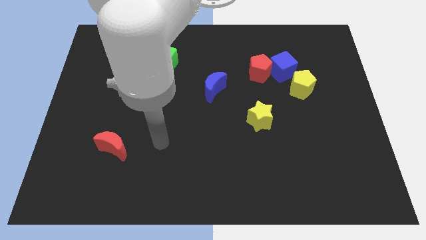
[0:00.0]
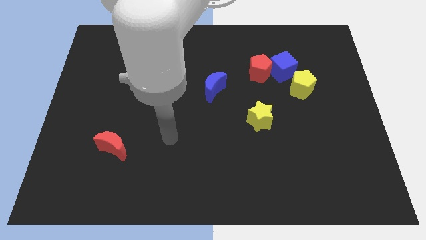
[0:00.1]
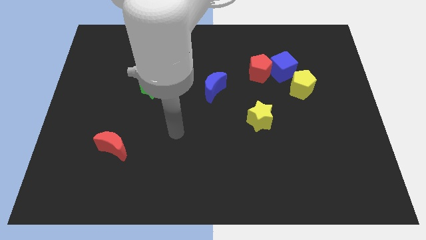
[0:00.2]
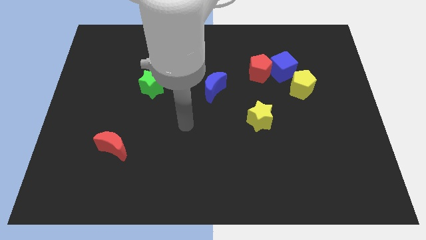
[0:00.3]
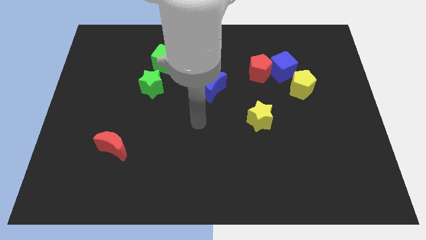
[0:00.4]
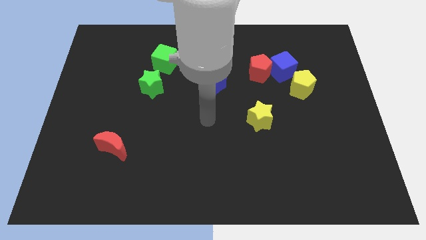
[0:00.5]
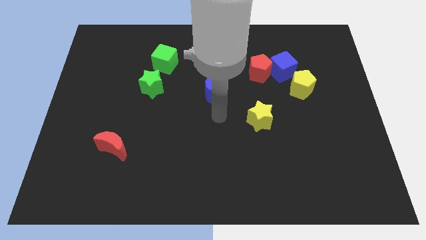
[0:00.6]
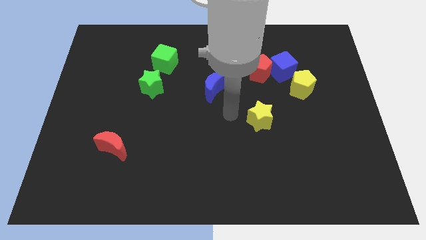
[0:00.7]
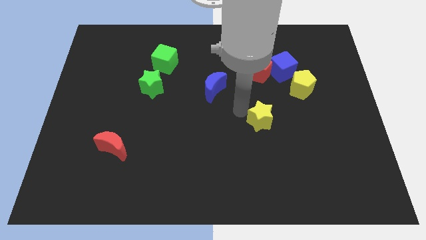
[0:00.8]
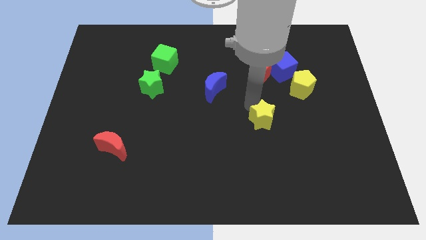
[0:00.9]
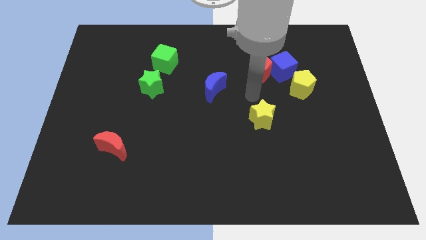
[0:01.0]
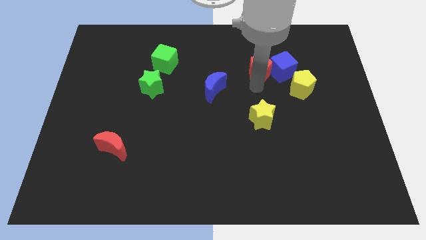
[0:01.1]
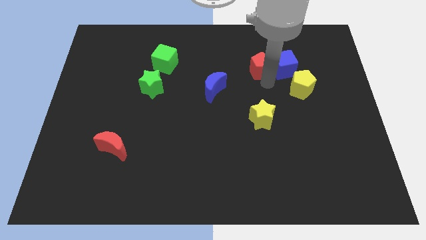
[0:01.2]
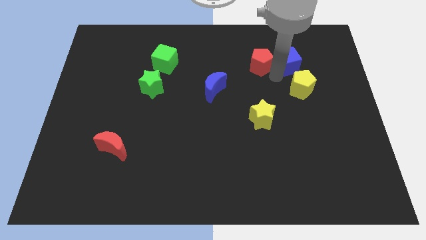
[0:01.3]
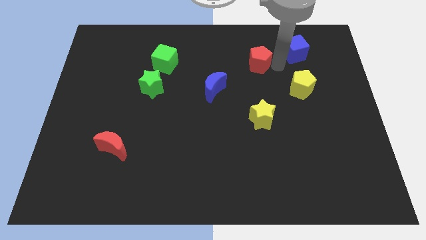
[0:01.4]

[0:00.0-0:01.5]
pull the red pentagon apart from the blue cube

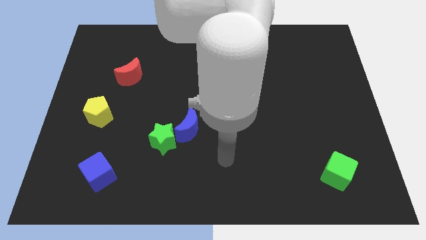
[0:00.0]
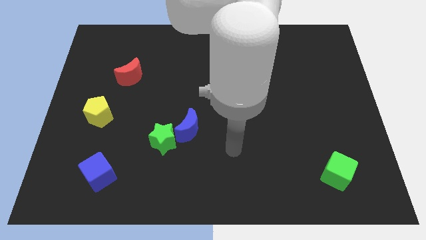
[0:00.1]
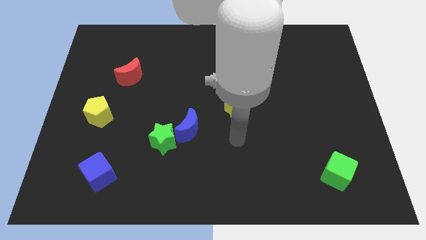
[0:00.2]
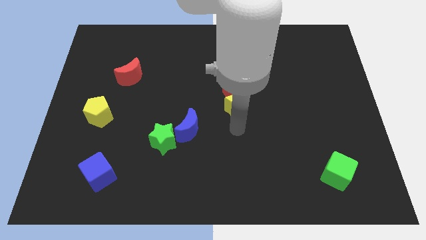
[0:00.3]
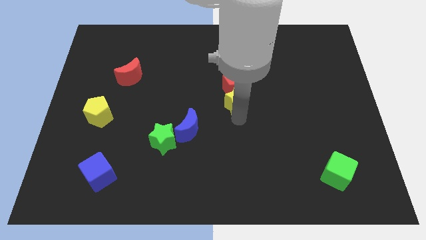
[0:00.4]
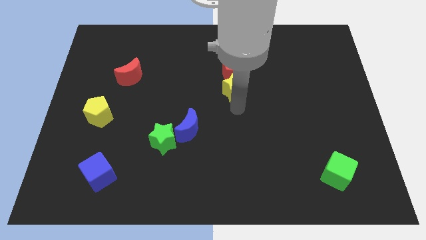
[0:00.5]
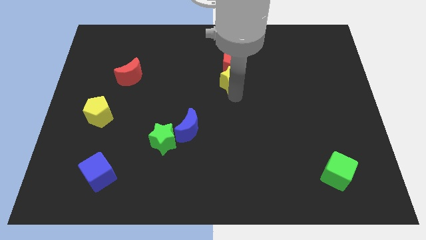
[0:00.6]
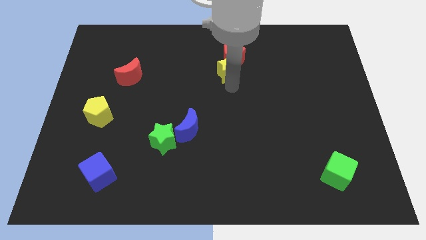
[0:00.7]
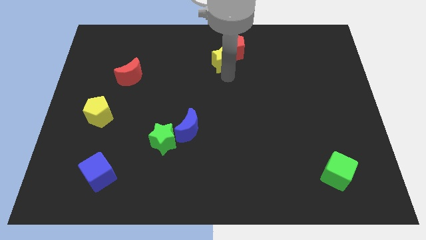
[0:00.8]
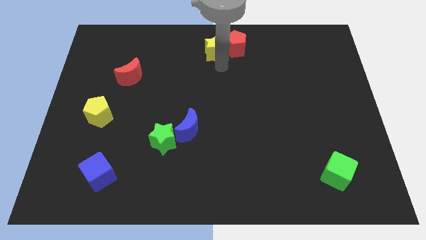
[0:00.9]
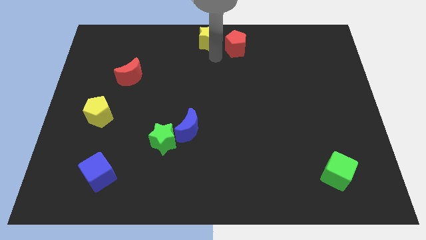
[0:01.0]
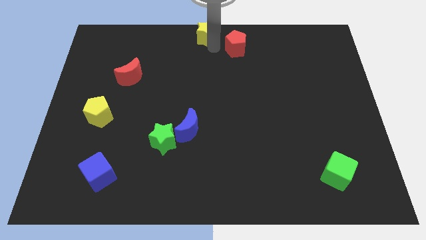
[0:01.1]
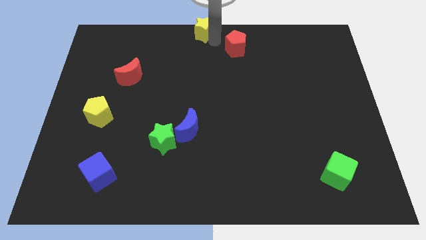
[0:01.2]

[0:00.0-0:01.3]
move the red pentagon away from the yellow star

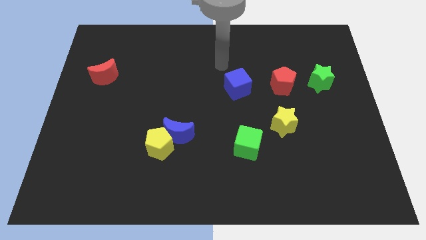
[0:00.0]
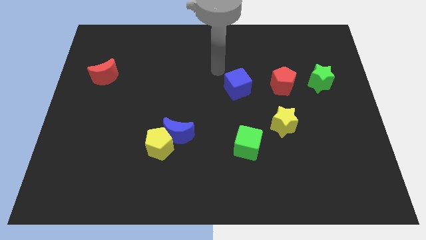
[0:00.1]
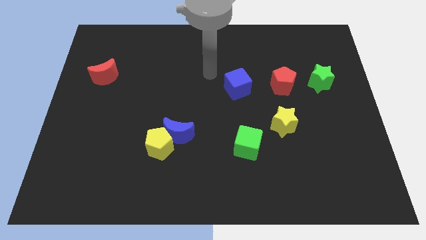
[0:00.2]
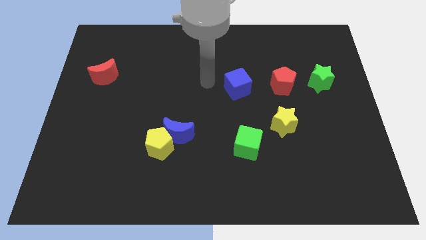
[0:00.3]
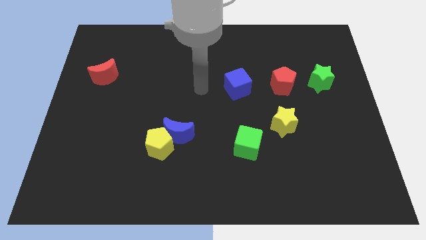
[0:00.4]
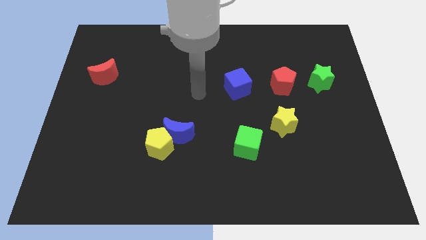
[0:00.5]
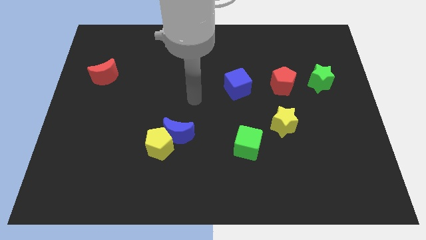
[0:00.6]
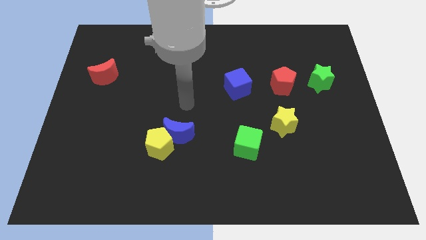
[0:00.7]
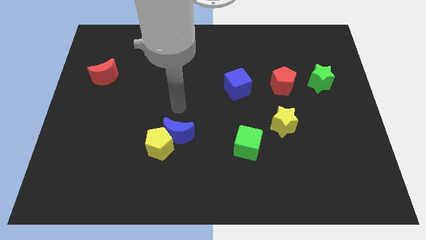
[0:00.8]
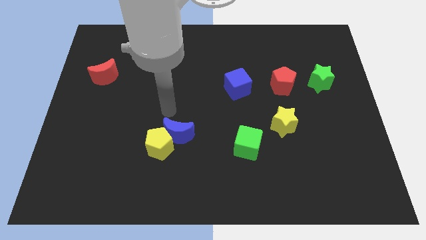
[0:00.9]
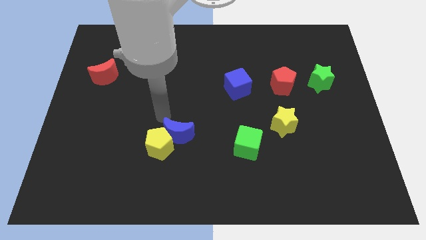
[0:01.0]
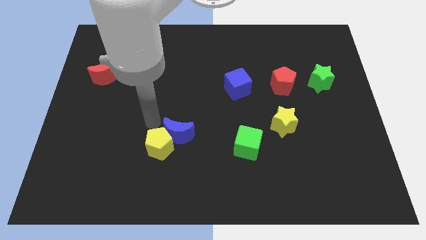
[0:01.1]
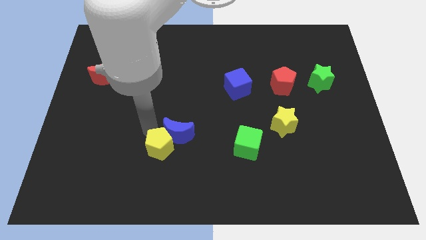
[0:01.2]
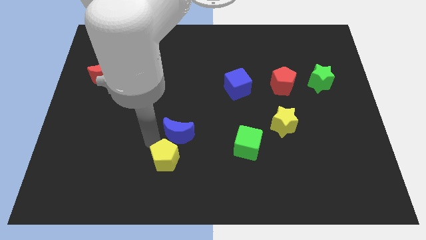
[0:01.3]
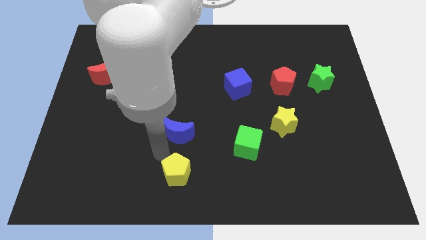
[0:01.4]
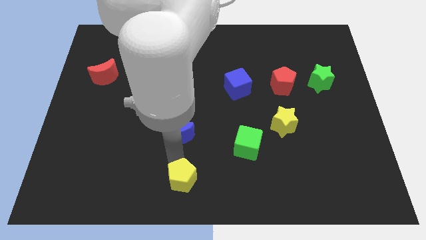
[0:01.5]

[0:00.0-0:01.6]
separate the blue moon from the yellow pentagon

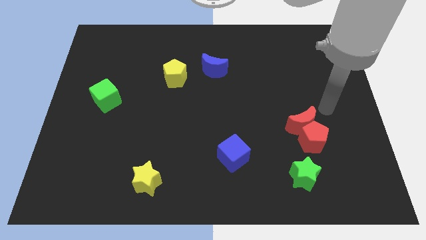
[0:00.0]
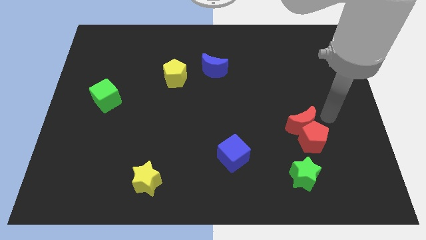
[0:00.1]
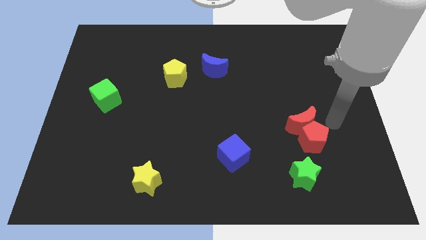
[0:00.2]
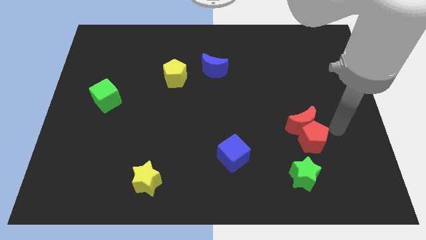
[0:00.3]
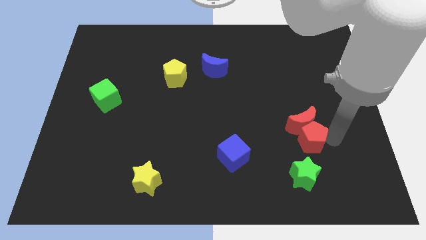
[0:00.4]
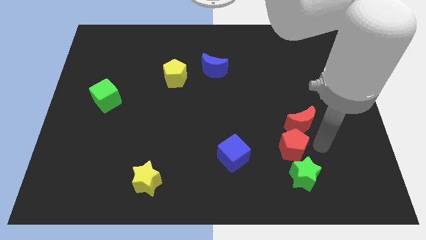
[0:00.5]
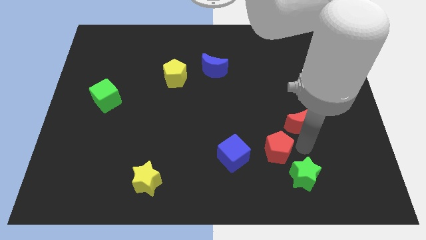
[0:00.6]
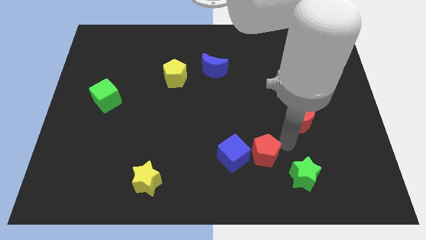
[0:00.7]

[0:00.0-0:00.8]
separate the red moon from the red pentagon

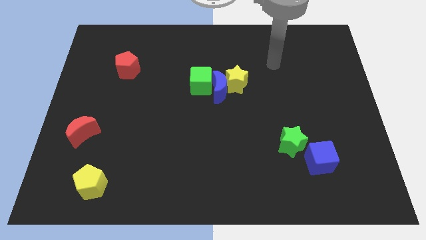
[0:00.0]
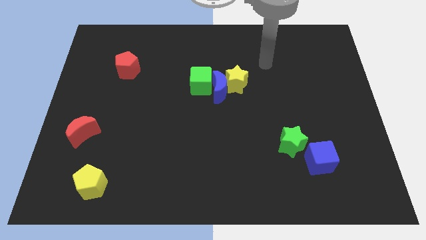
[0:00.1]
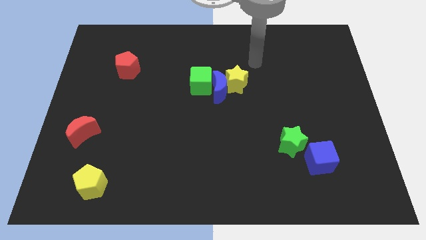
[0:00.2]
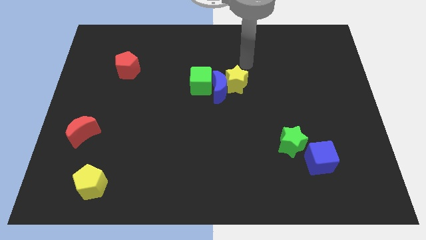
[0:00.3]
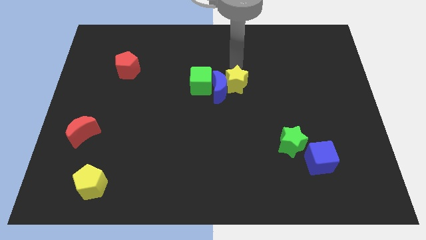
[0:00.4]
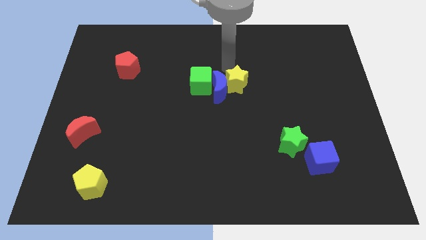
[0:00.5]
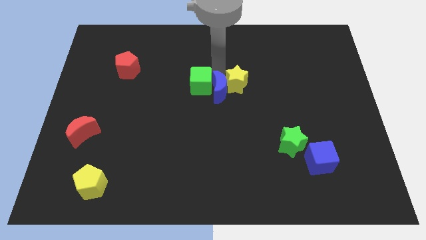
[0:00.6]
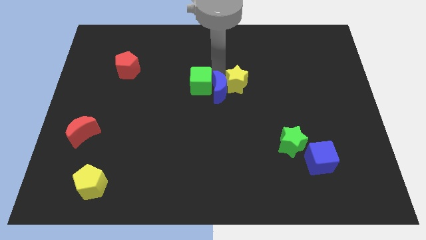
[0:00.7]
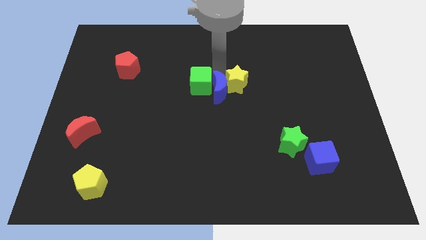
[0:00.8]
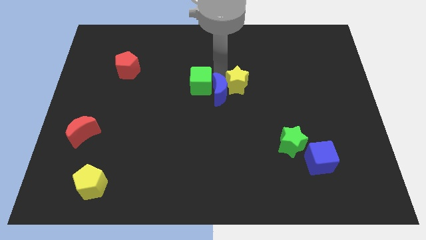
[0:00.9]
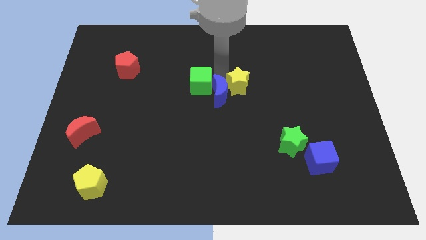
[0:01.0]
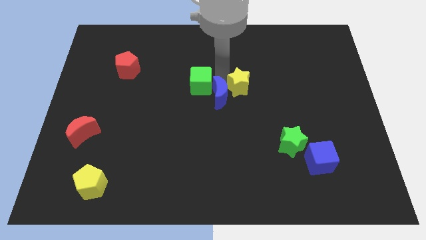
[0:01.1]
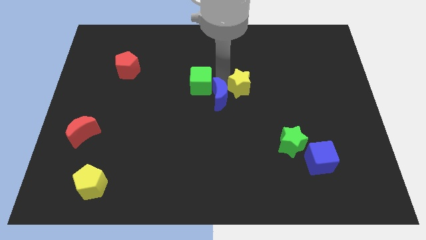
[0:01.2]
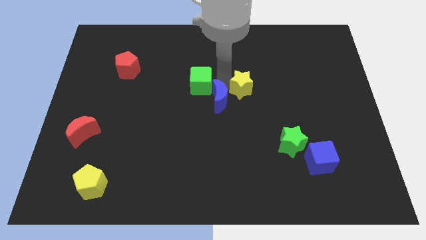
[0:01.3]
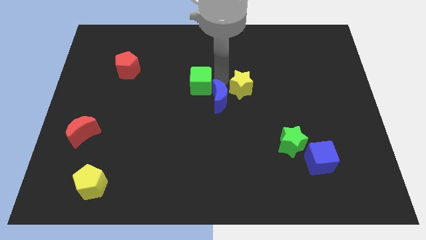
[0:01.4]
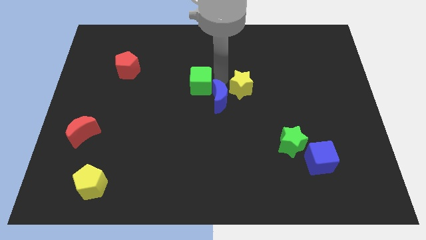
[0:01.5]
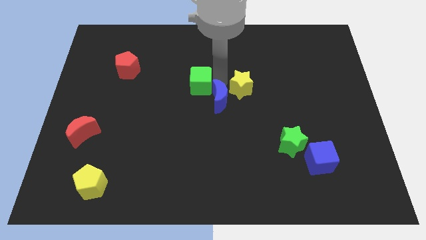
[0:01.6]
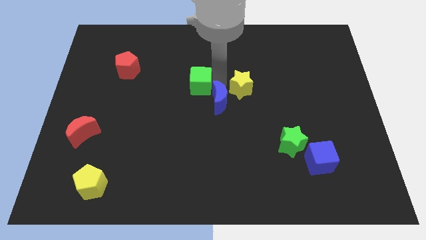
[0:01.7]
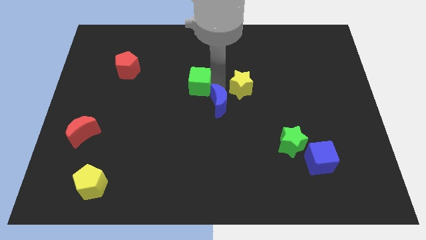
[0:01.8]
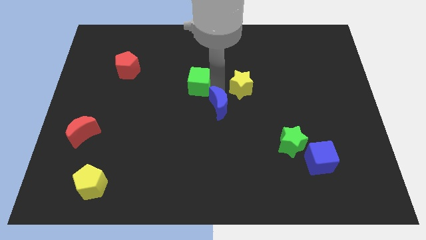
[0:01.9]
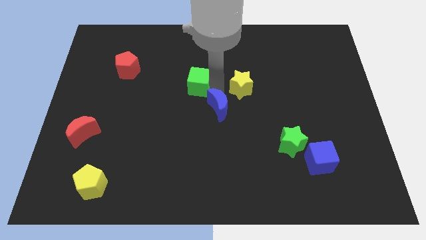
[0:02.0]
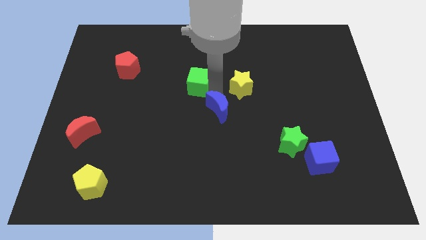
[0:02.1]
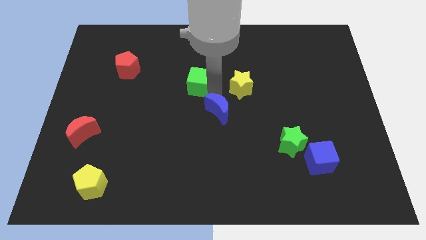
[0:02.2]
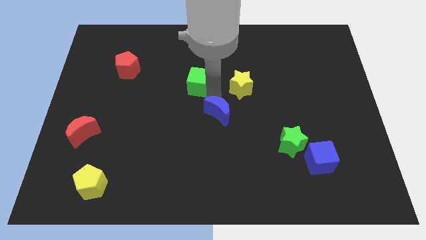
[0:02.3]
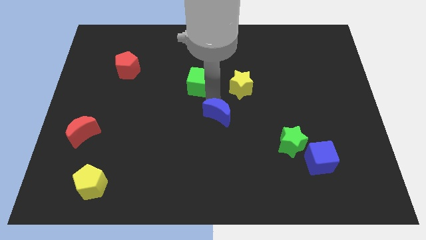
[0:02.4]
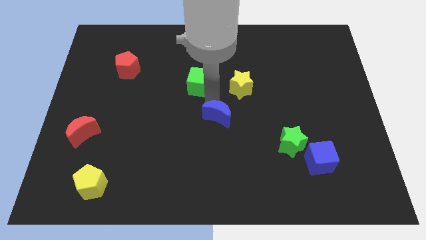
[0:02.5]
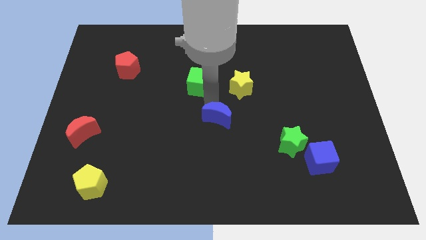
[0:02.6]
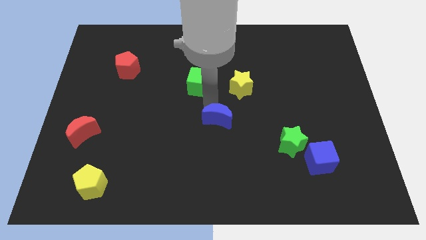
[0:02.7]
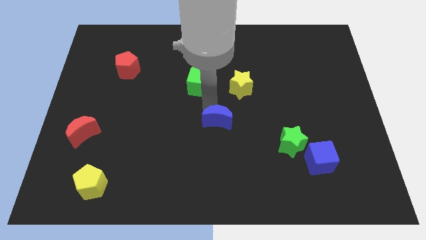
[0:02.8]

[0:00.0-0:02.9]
pull the blue moon apart from the yellow star and green cube

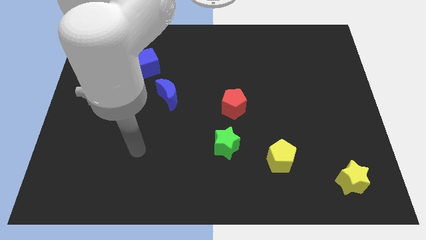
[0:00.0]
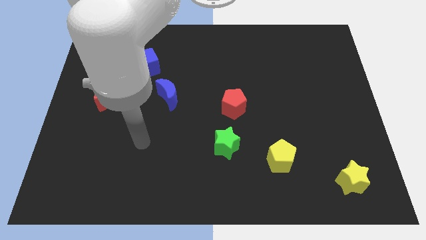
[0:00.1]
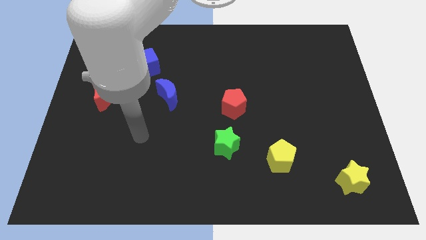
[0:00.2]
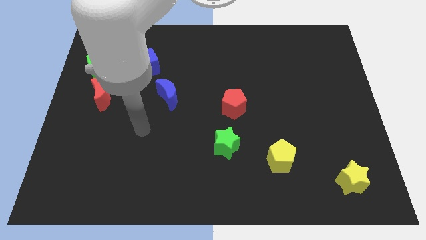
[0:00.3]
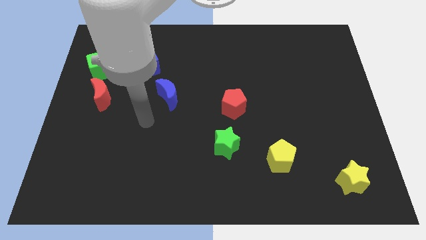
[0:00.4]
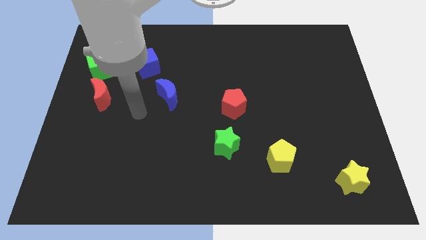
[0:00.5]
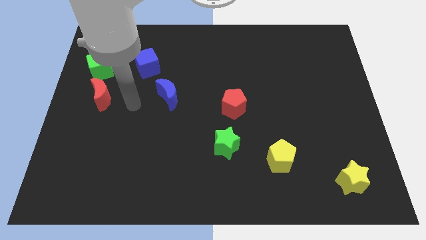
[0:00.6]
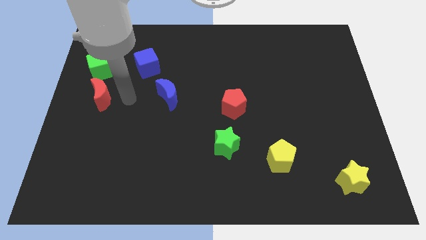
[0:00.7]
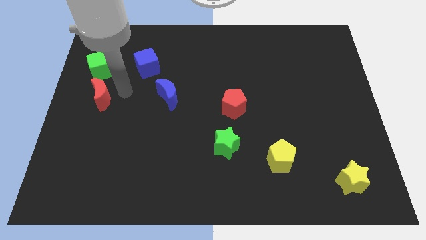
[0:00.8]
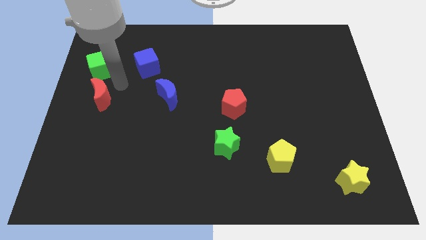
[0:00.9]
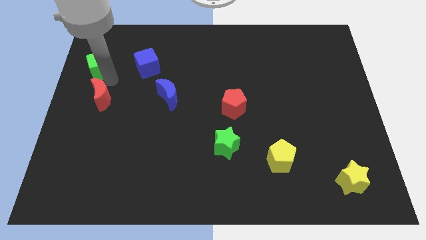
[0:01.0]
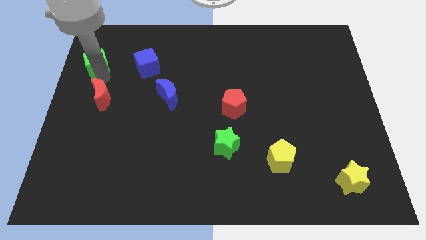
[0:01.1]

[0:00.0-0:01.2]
separate the red moon from the green cube
